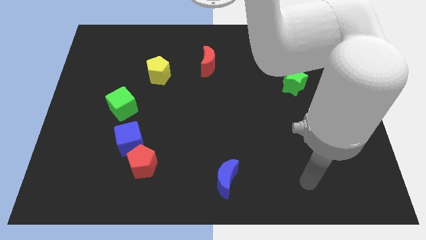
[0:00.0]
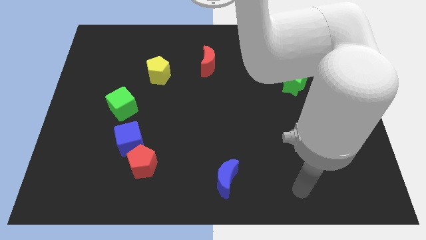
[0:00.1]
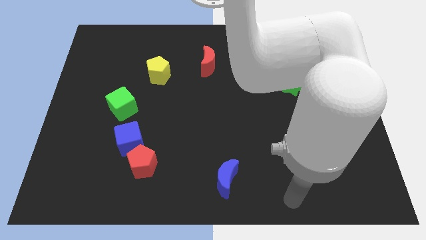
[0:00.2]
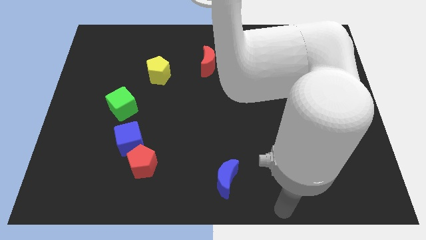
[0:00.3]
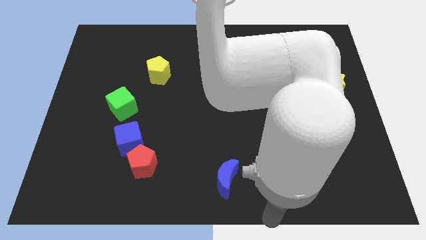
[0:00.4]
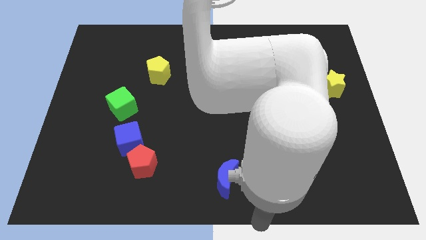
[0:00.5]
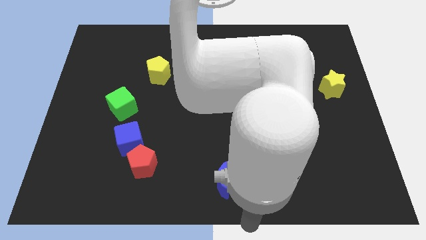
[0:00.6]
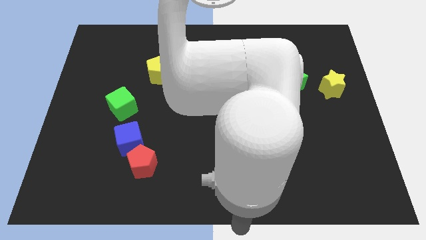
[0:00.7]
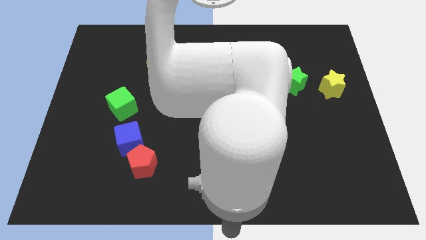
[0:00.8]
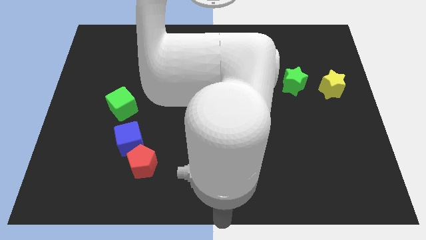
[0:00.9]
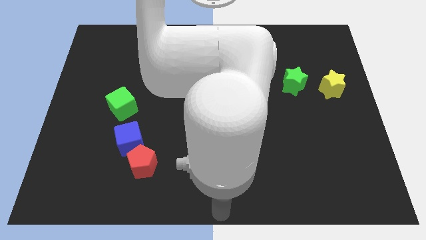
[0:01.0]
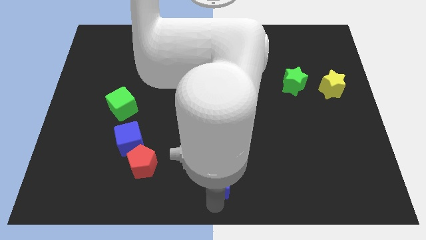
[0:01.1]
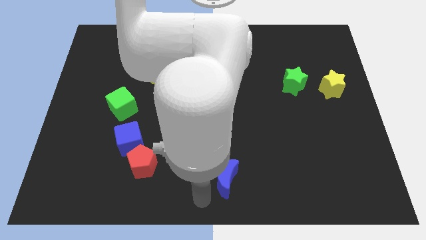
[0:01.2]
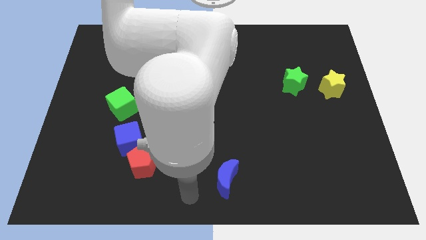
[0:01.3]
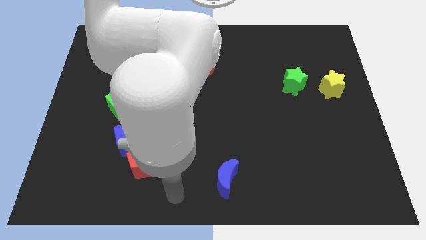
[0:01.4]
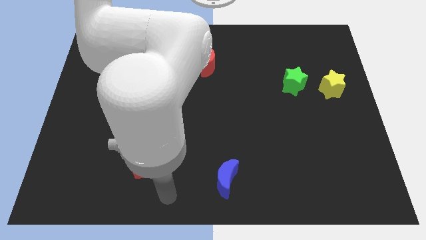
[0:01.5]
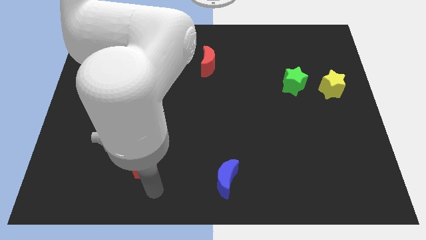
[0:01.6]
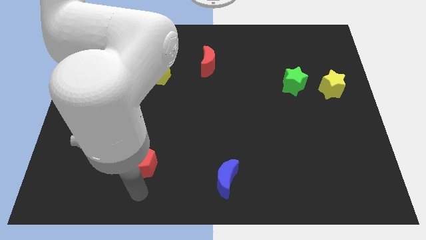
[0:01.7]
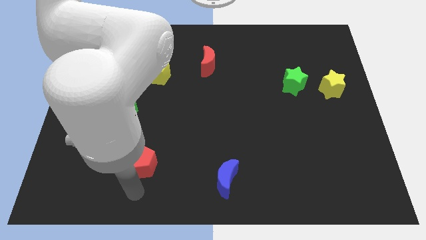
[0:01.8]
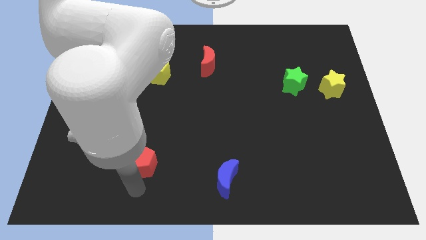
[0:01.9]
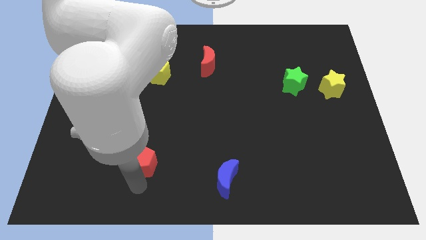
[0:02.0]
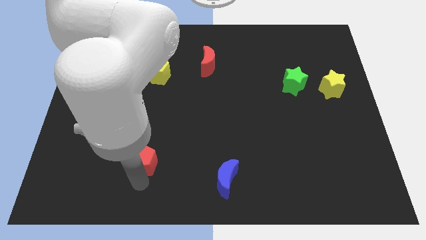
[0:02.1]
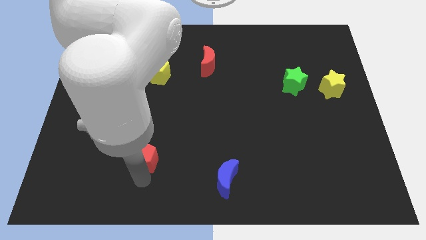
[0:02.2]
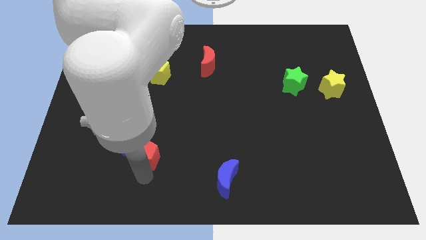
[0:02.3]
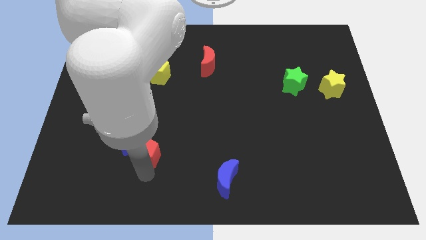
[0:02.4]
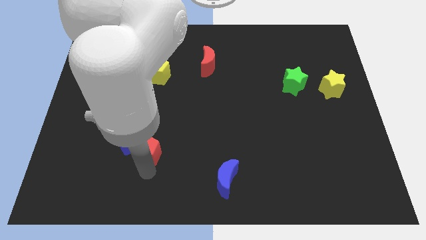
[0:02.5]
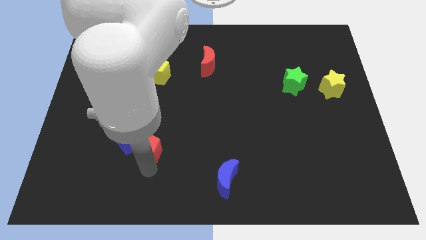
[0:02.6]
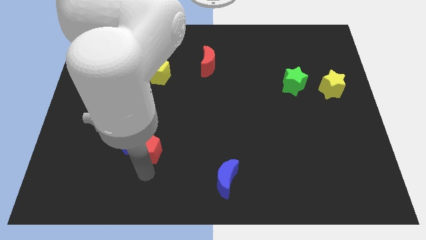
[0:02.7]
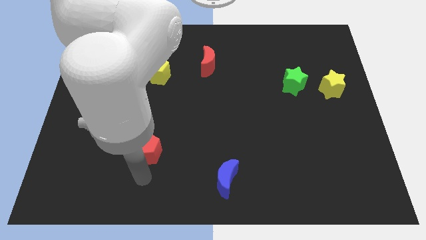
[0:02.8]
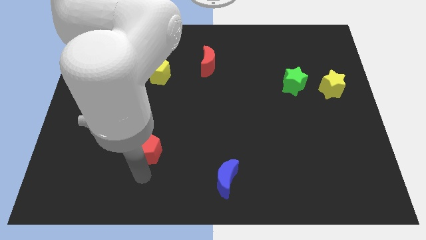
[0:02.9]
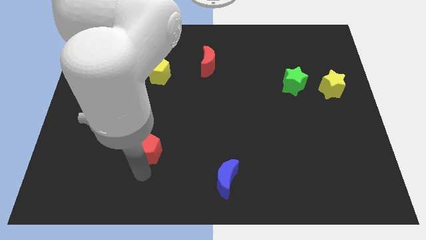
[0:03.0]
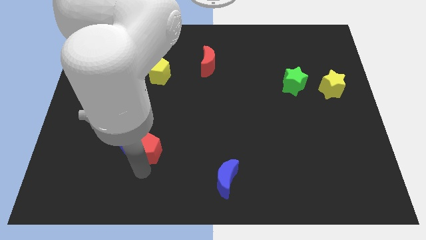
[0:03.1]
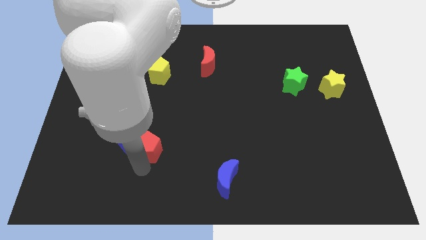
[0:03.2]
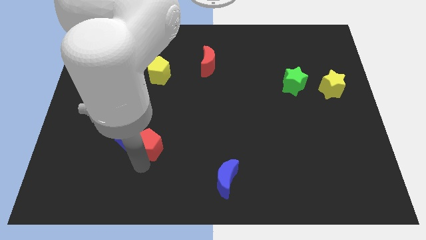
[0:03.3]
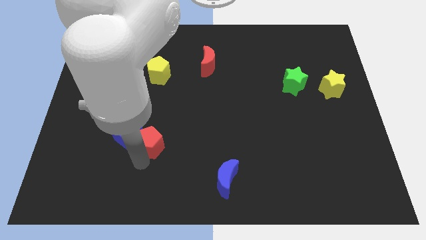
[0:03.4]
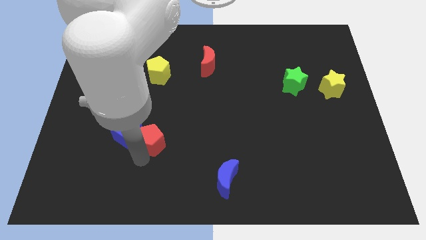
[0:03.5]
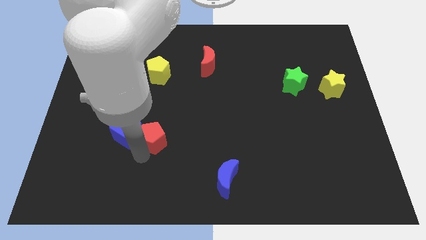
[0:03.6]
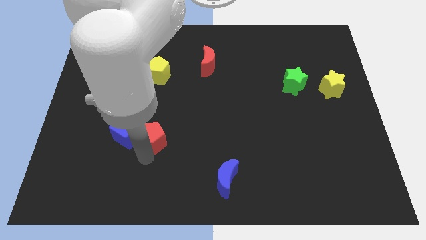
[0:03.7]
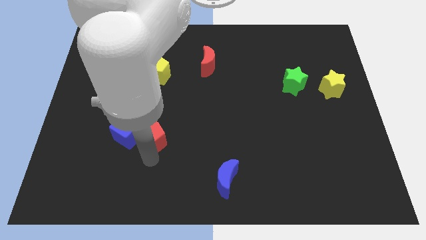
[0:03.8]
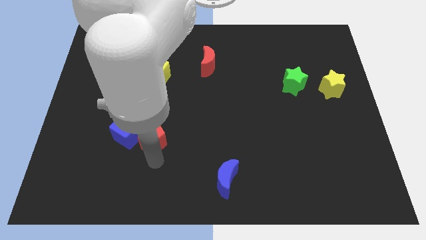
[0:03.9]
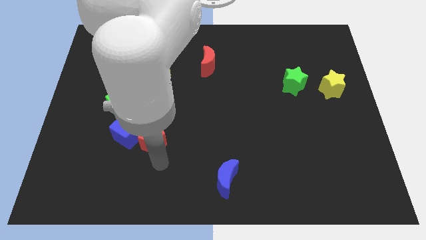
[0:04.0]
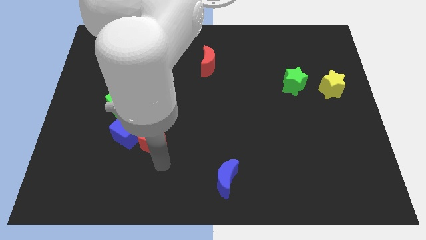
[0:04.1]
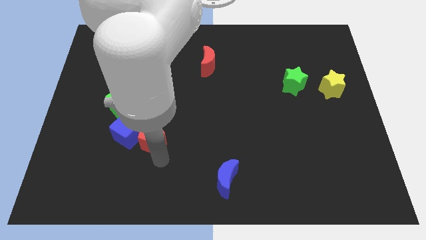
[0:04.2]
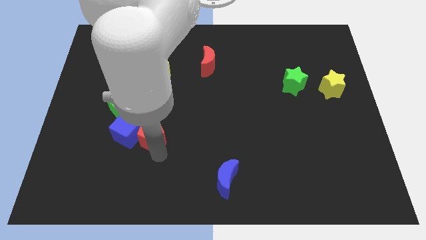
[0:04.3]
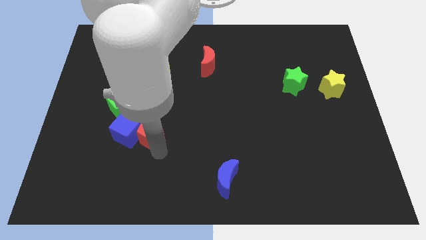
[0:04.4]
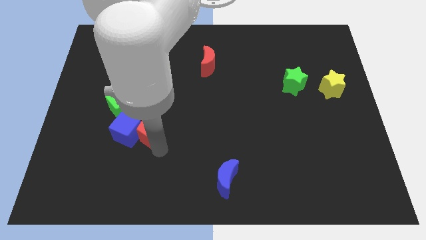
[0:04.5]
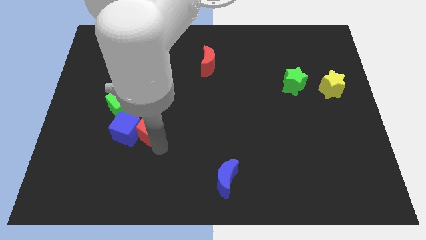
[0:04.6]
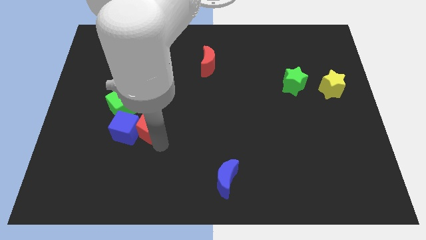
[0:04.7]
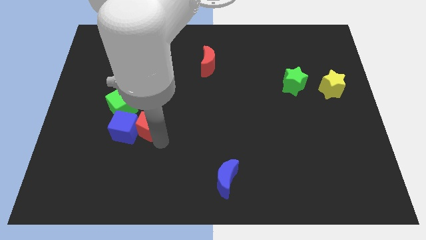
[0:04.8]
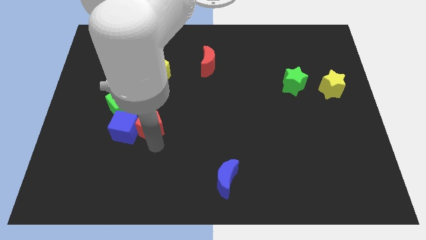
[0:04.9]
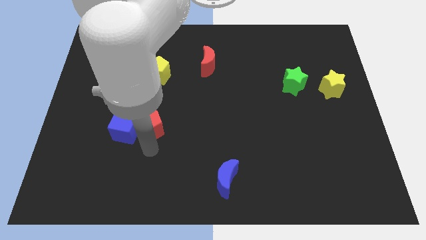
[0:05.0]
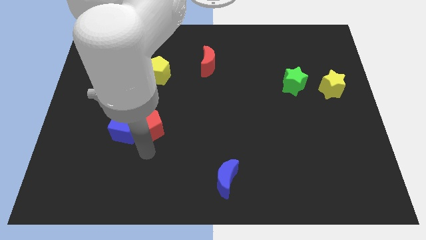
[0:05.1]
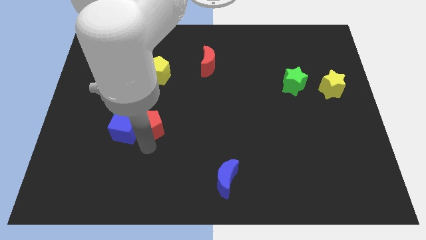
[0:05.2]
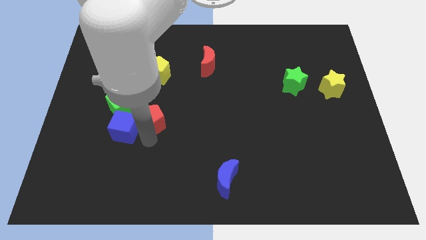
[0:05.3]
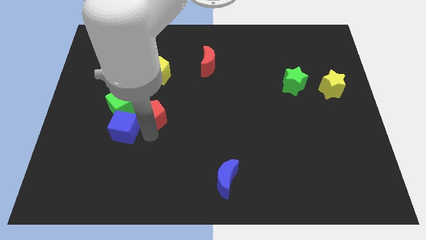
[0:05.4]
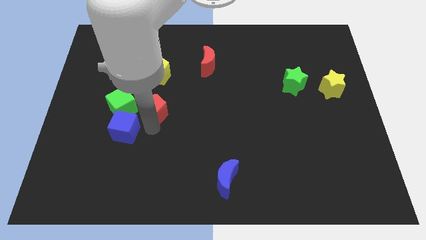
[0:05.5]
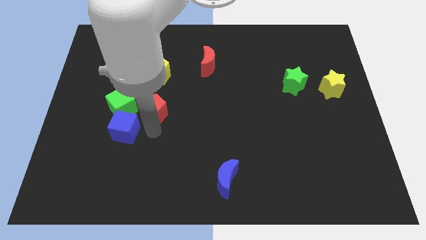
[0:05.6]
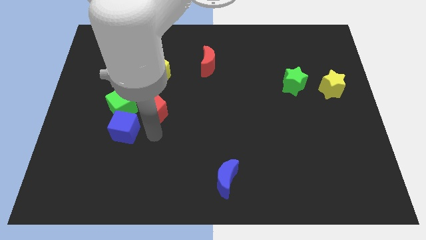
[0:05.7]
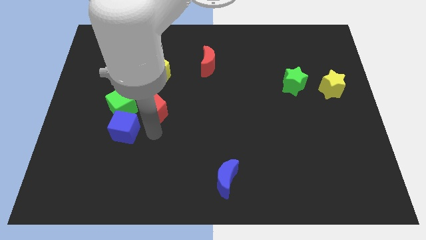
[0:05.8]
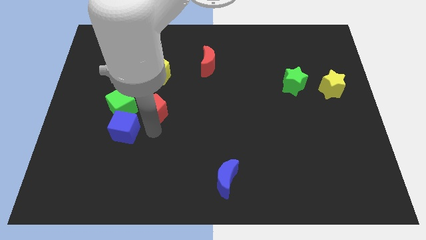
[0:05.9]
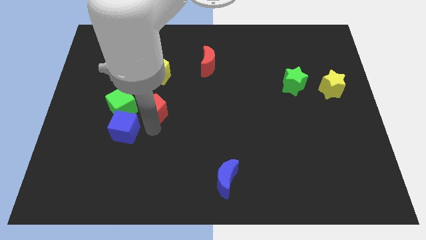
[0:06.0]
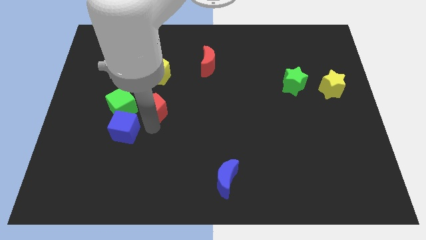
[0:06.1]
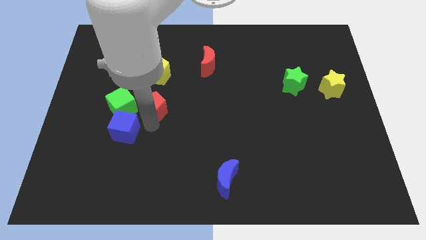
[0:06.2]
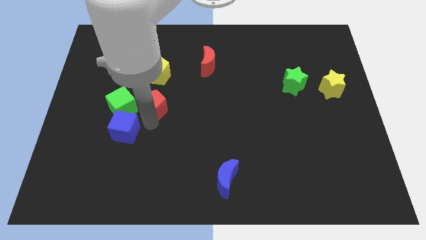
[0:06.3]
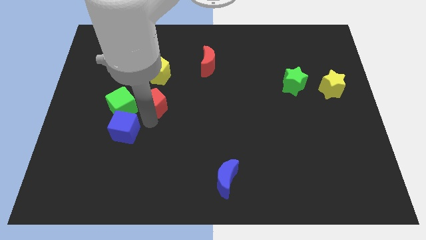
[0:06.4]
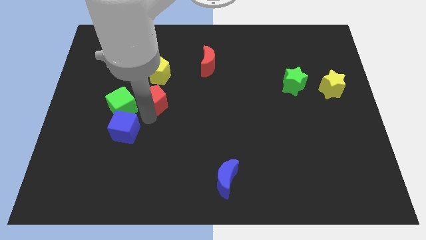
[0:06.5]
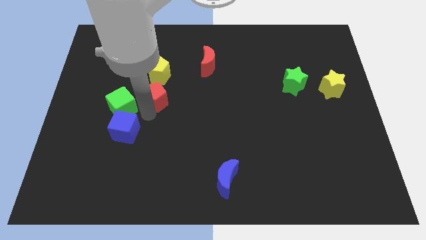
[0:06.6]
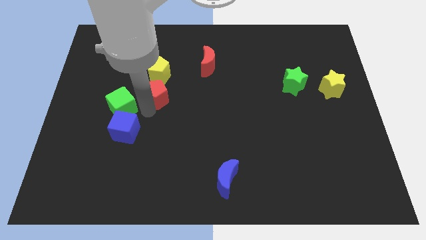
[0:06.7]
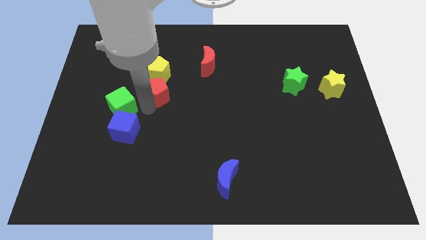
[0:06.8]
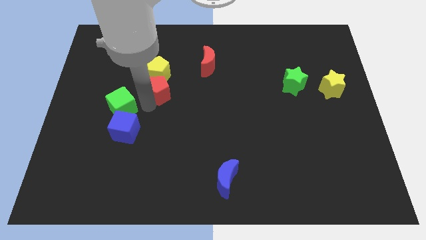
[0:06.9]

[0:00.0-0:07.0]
put the red pentagon towards the yellow pentagon

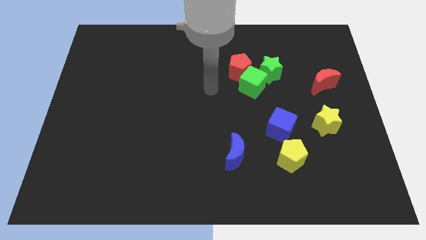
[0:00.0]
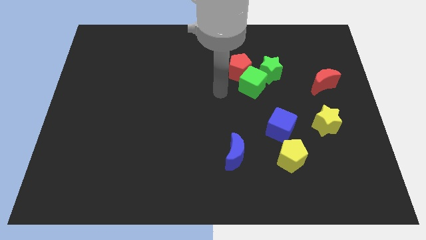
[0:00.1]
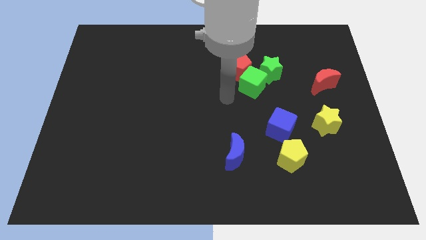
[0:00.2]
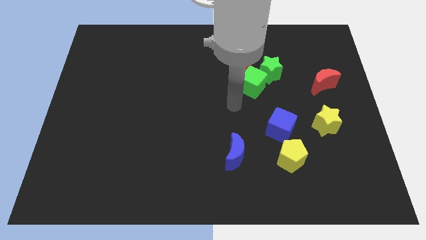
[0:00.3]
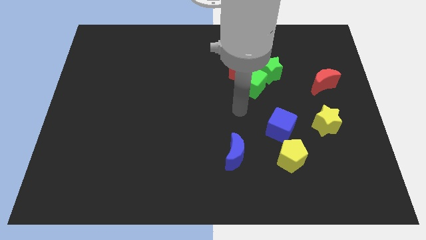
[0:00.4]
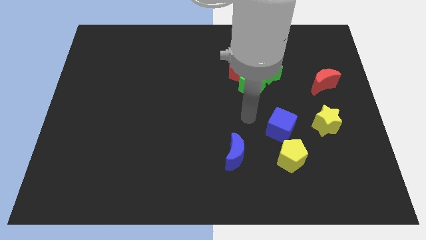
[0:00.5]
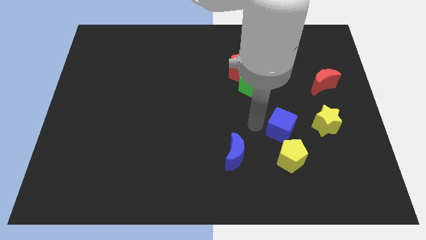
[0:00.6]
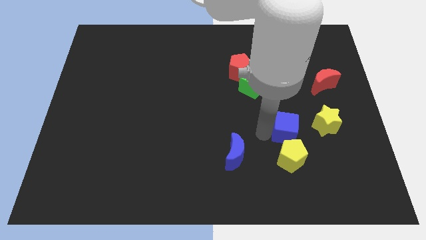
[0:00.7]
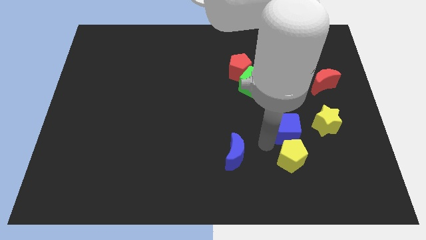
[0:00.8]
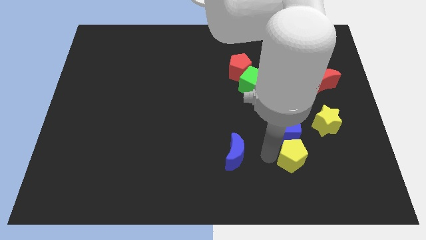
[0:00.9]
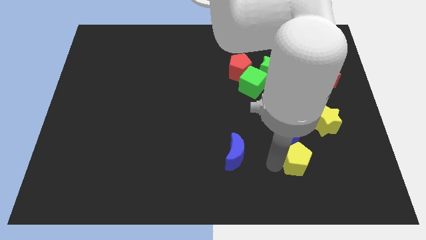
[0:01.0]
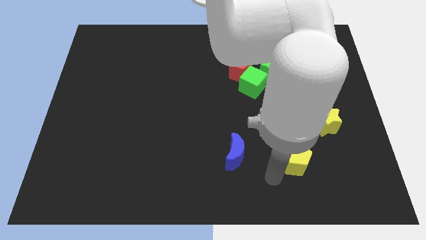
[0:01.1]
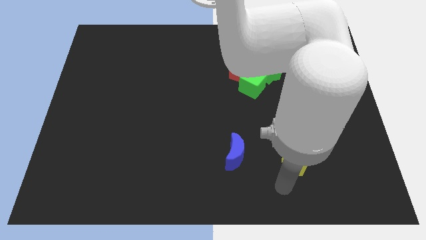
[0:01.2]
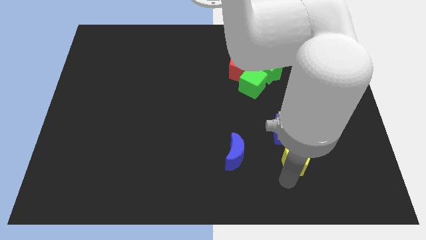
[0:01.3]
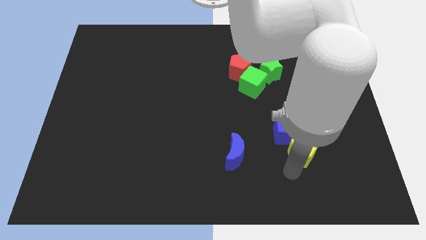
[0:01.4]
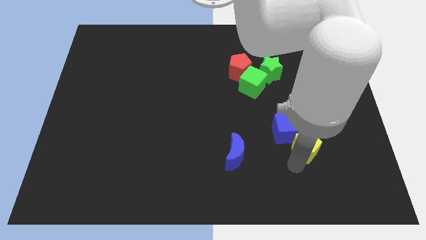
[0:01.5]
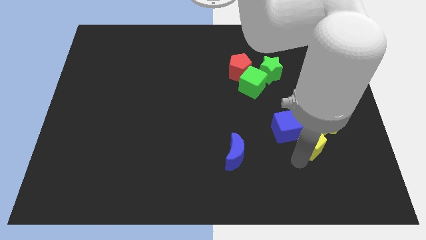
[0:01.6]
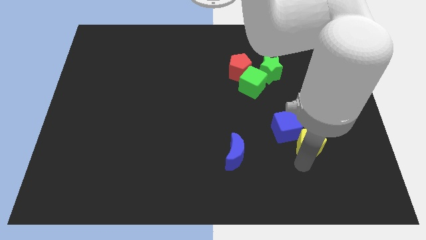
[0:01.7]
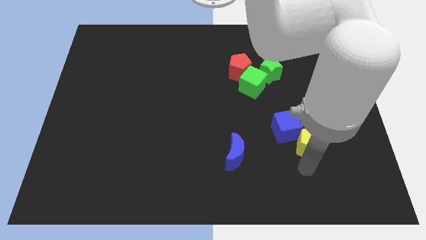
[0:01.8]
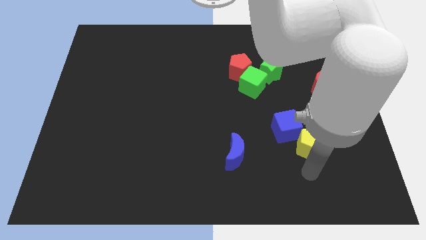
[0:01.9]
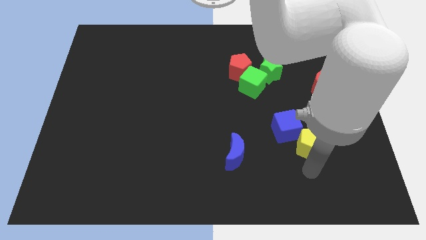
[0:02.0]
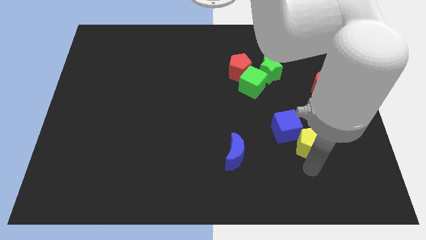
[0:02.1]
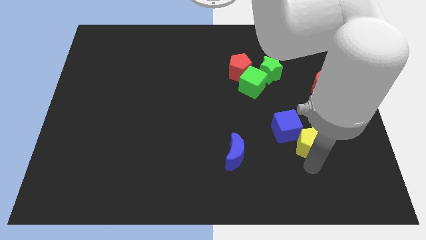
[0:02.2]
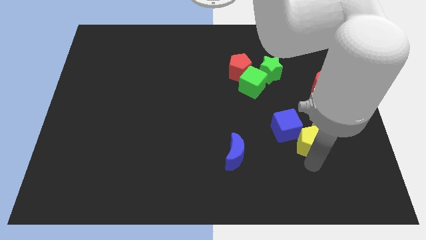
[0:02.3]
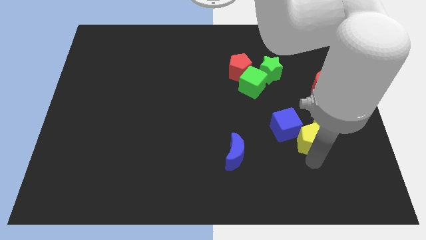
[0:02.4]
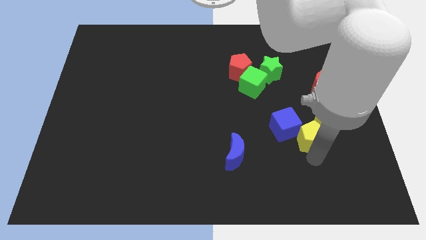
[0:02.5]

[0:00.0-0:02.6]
push the yellow pentagon towards the yellow star
